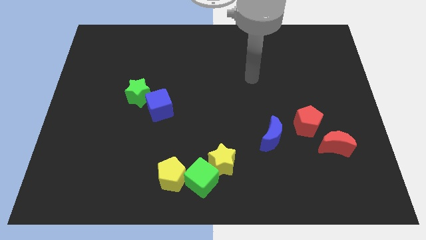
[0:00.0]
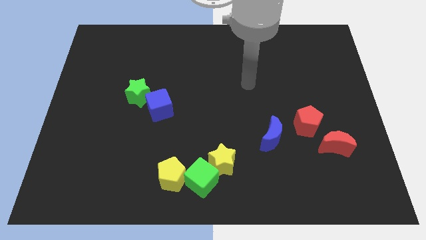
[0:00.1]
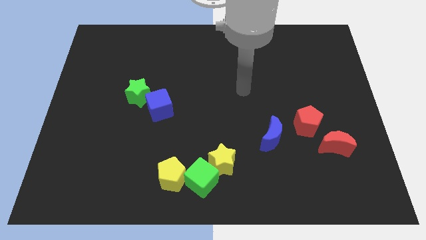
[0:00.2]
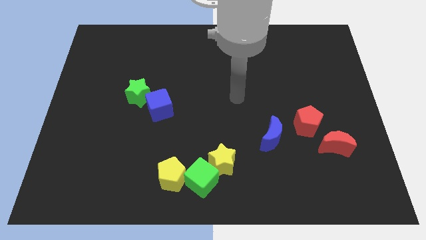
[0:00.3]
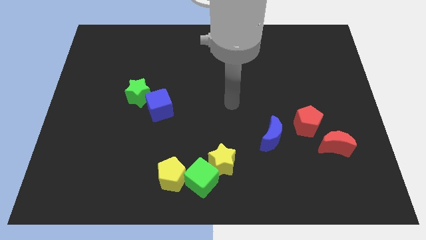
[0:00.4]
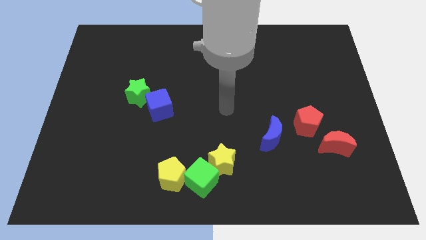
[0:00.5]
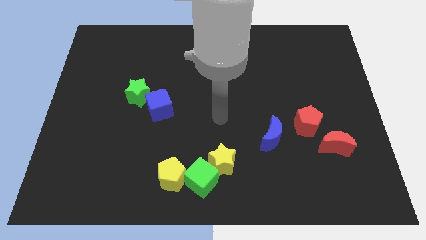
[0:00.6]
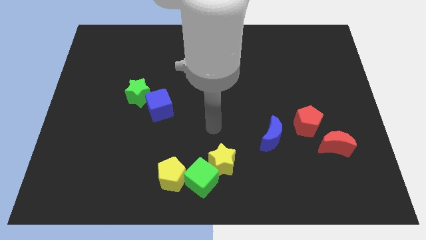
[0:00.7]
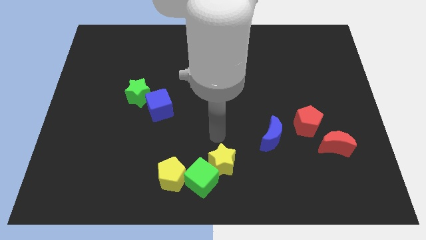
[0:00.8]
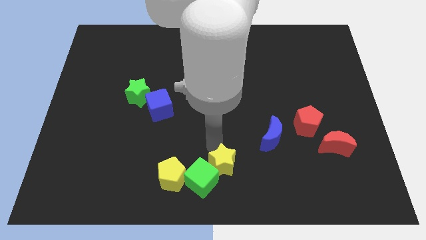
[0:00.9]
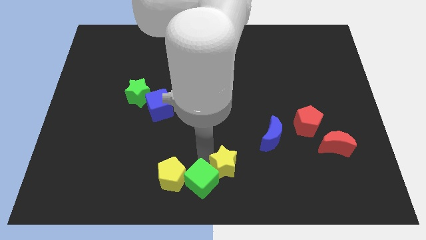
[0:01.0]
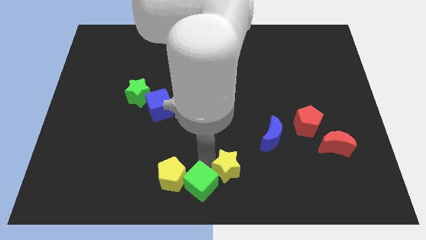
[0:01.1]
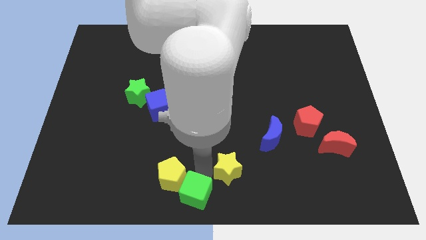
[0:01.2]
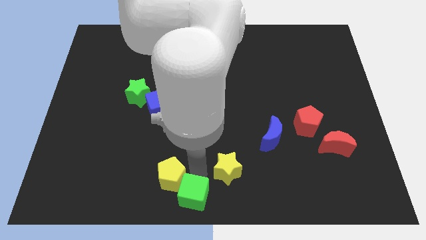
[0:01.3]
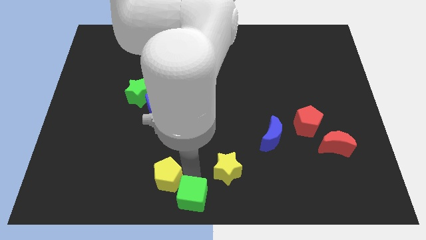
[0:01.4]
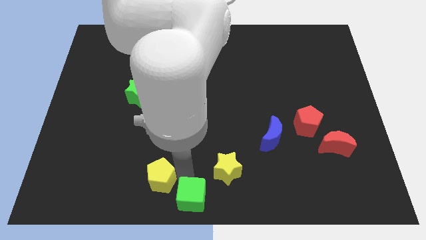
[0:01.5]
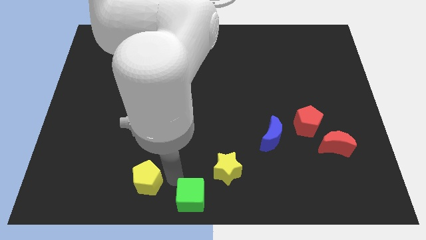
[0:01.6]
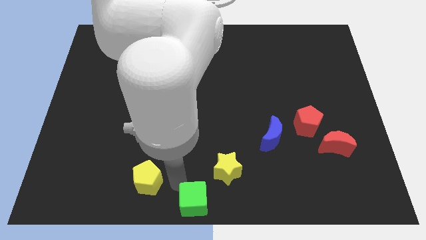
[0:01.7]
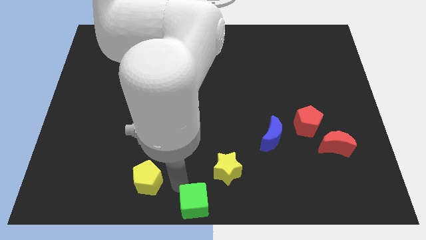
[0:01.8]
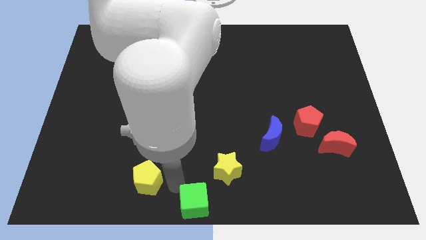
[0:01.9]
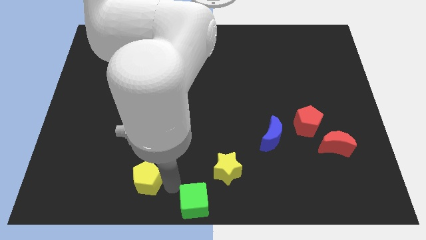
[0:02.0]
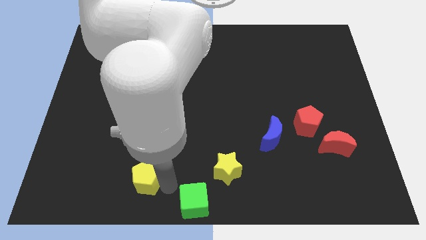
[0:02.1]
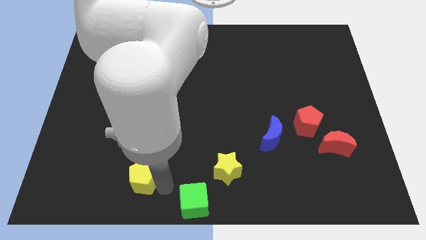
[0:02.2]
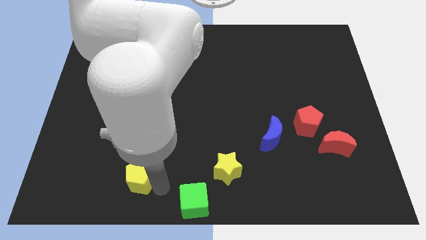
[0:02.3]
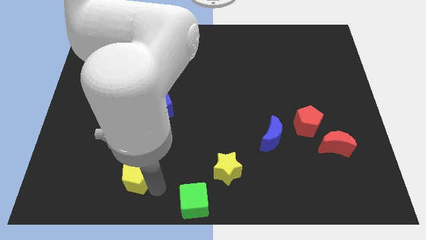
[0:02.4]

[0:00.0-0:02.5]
move the yellow pentagon a bit to the left

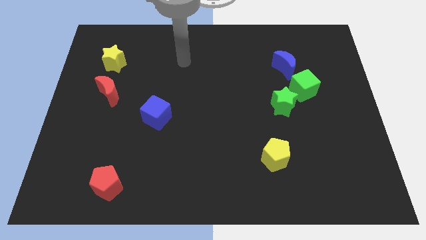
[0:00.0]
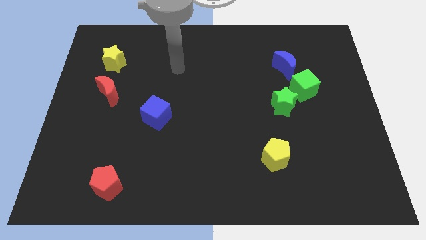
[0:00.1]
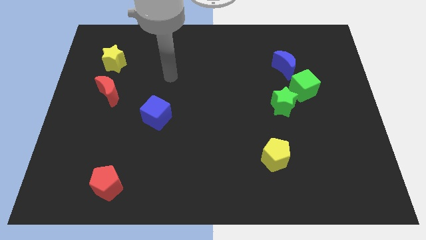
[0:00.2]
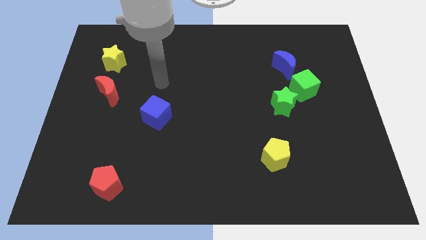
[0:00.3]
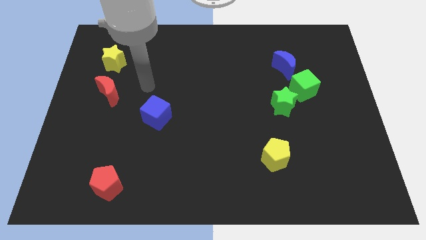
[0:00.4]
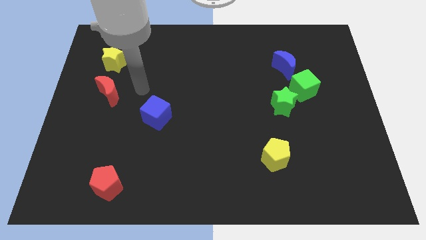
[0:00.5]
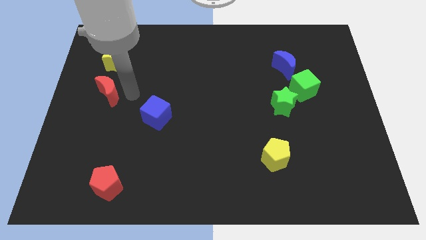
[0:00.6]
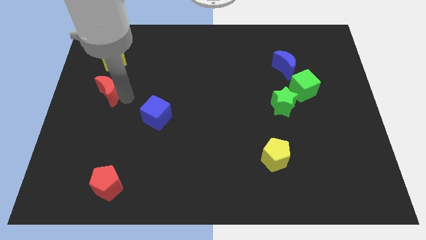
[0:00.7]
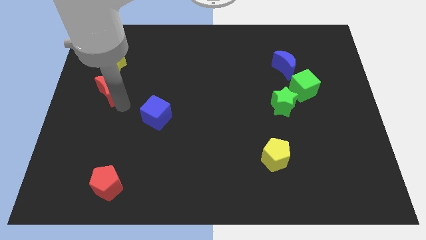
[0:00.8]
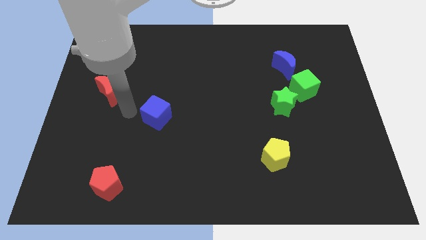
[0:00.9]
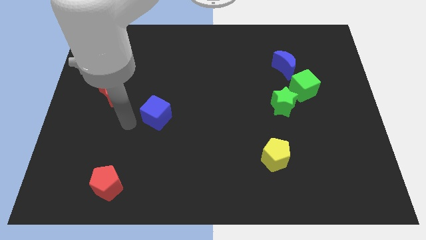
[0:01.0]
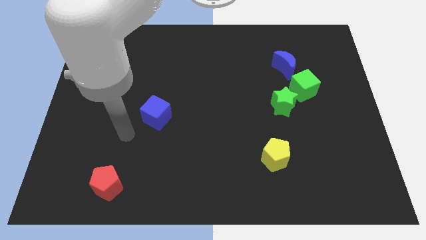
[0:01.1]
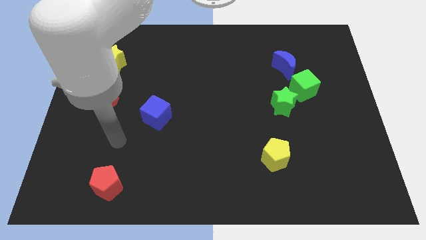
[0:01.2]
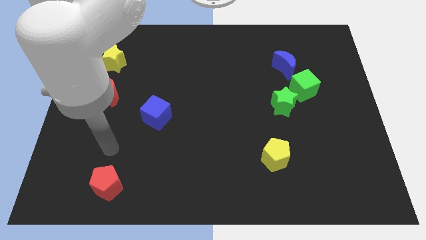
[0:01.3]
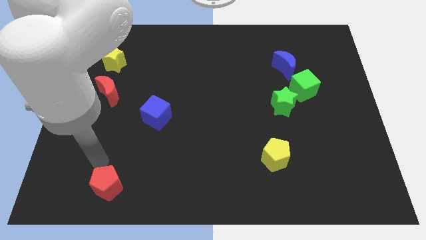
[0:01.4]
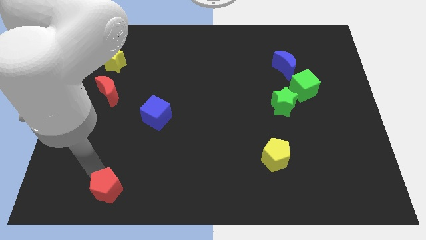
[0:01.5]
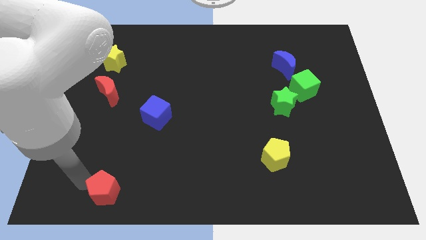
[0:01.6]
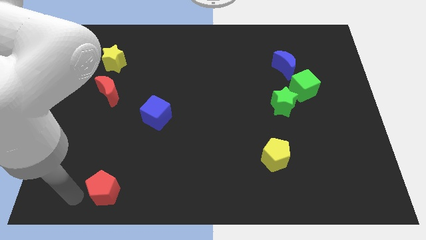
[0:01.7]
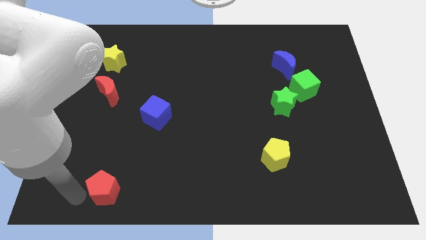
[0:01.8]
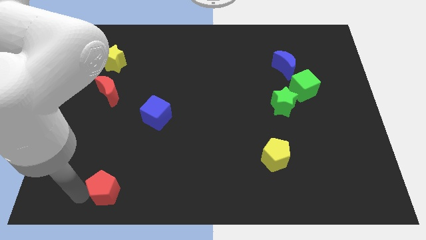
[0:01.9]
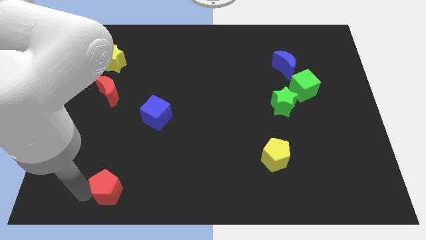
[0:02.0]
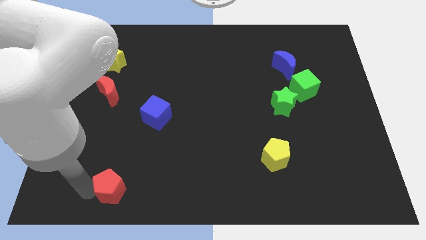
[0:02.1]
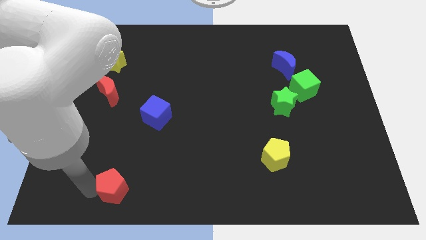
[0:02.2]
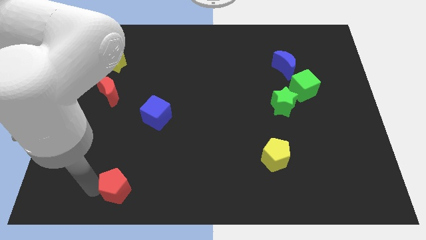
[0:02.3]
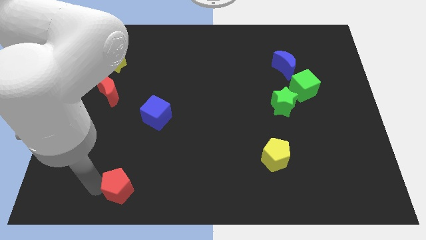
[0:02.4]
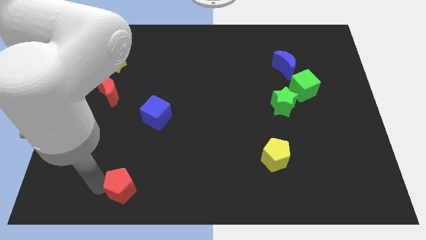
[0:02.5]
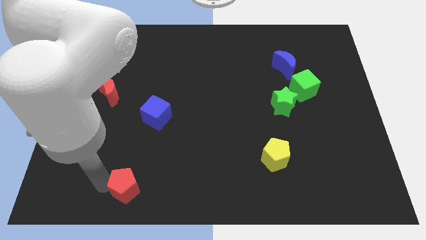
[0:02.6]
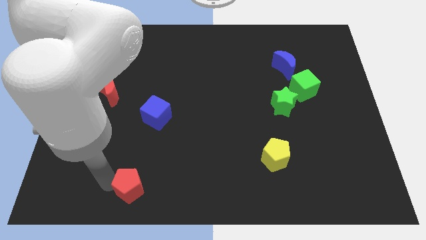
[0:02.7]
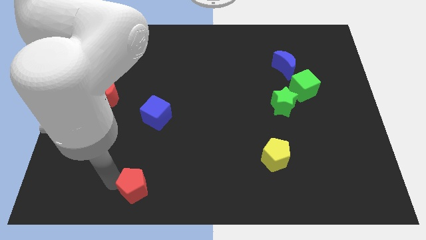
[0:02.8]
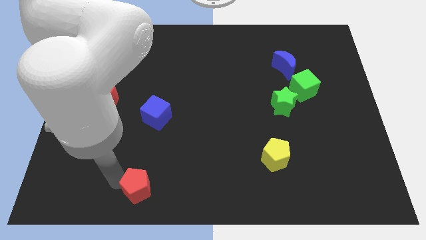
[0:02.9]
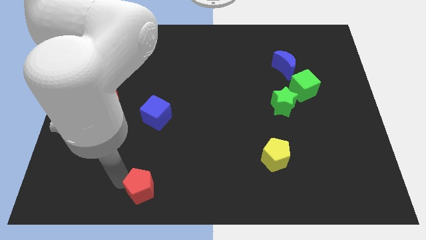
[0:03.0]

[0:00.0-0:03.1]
move the red pentagon to the right a little

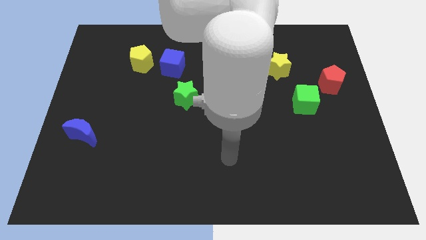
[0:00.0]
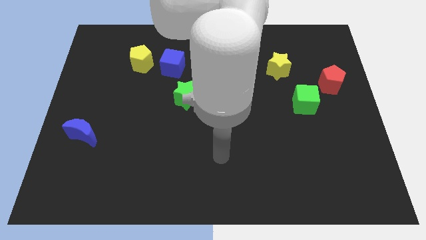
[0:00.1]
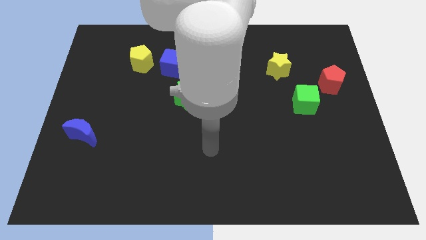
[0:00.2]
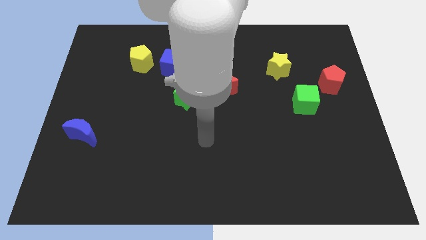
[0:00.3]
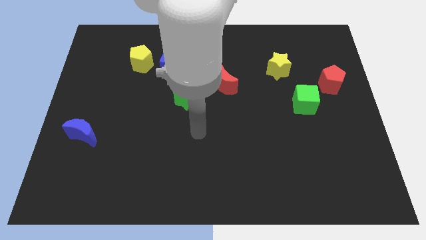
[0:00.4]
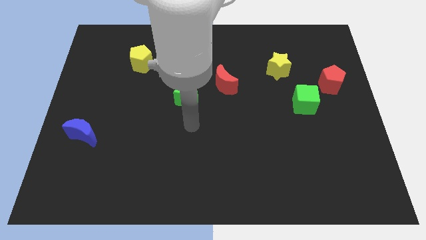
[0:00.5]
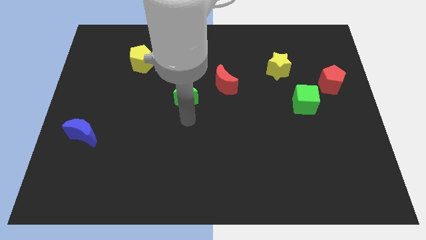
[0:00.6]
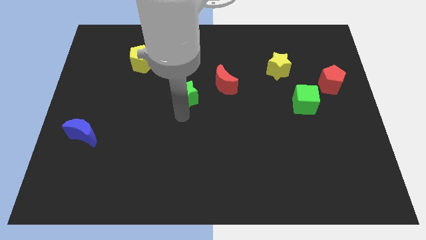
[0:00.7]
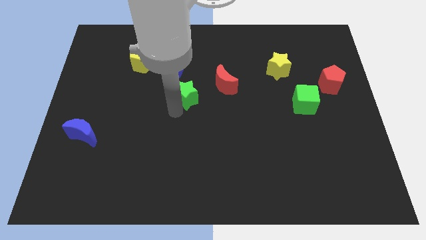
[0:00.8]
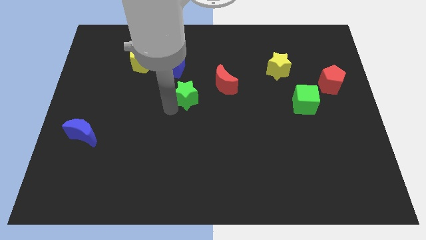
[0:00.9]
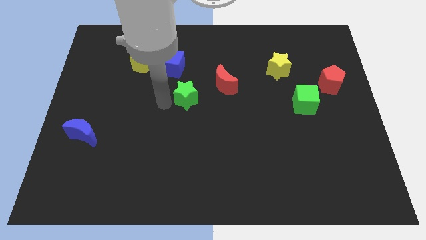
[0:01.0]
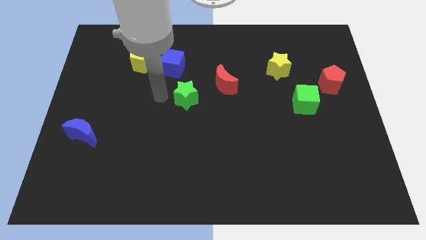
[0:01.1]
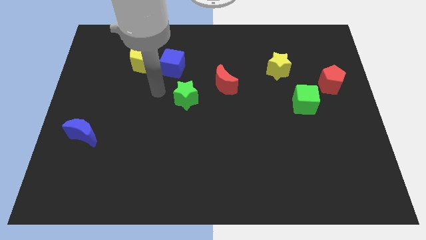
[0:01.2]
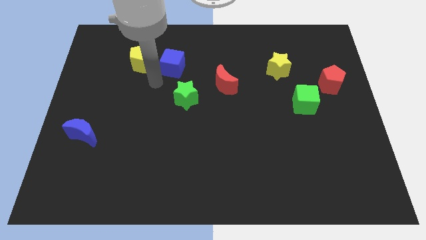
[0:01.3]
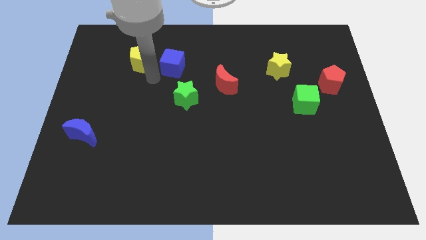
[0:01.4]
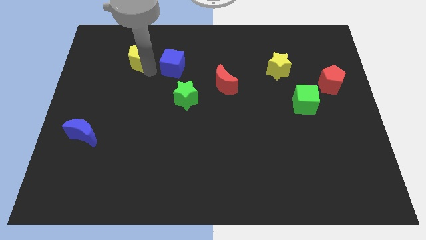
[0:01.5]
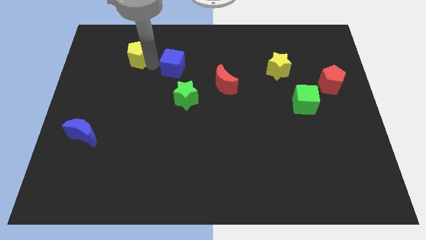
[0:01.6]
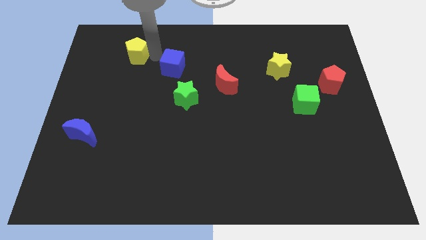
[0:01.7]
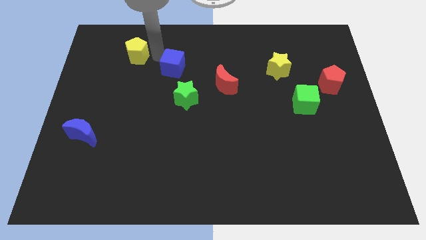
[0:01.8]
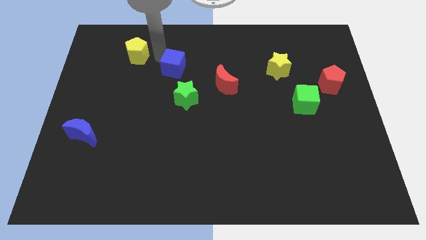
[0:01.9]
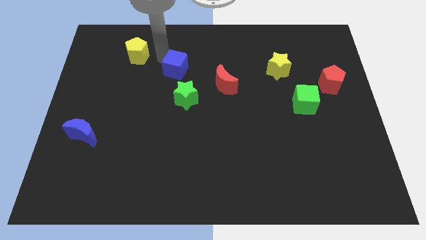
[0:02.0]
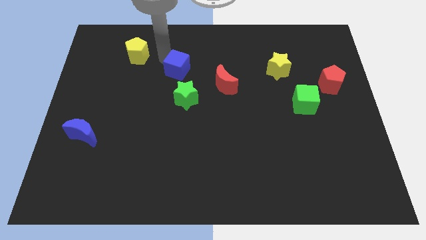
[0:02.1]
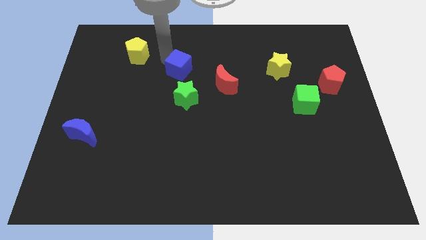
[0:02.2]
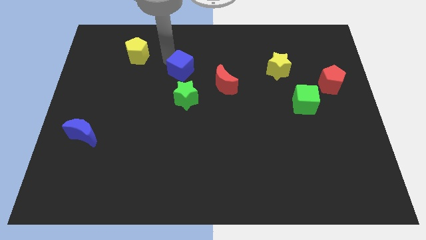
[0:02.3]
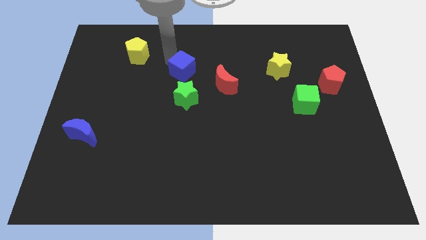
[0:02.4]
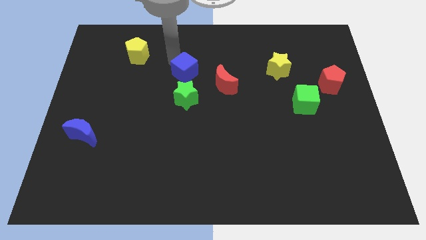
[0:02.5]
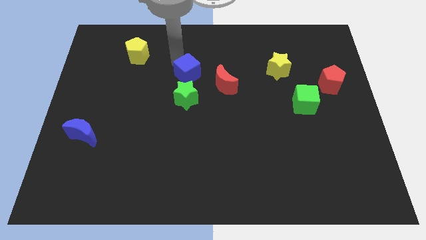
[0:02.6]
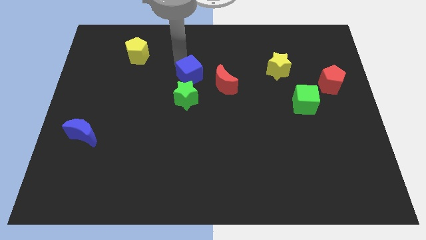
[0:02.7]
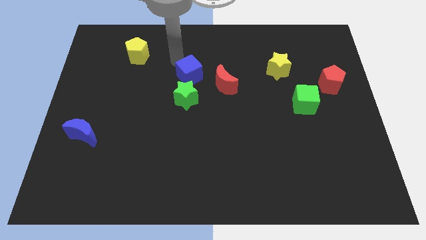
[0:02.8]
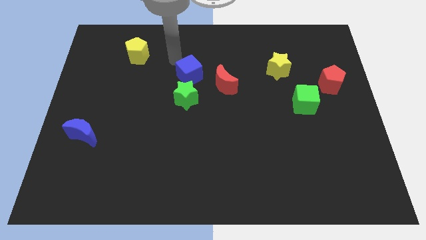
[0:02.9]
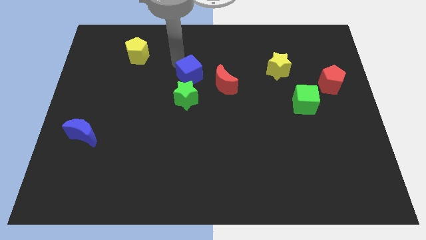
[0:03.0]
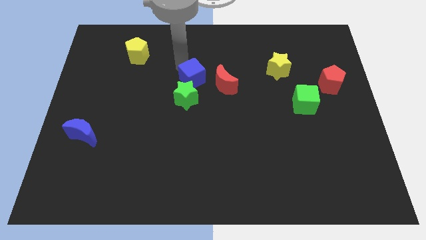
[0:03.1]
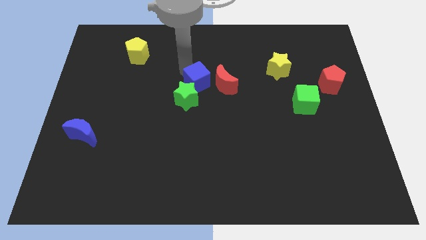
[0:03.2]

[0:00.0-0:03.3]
push the blue cube diagonally down and right slightly
